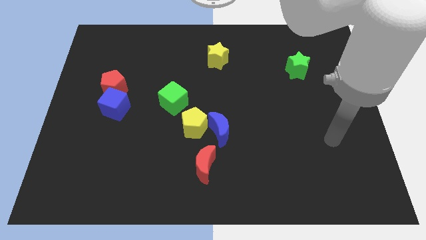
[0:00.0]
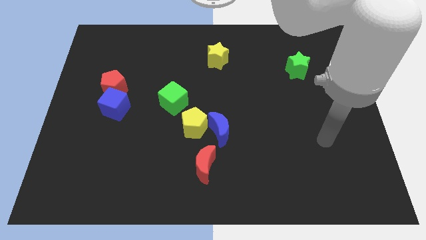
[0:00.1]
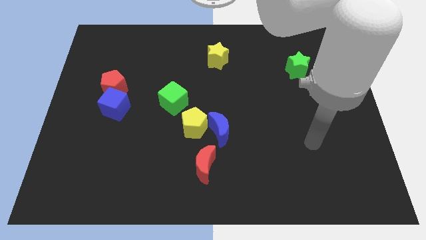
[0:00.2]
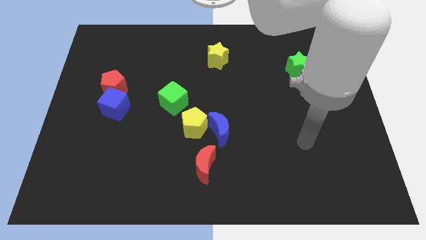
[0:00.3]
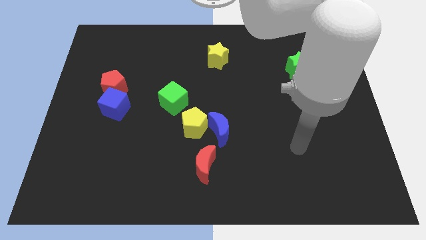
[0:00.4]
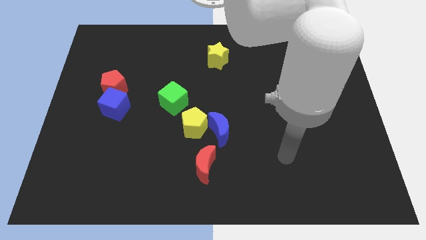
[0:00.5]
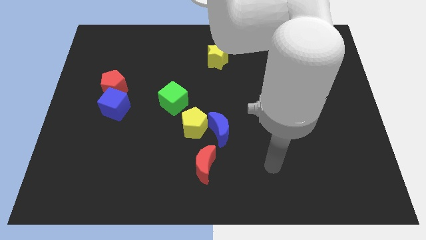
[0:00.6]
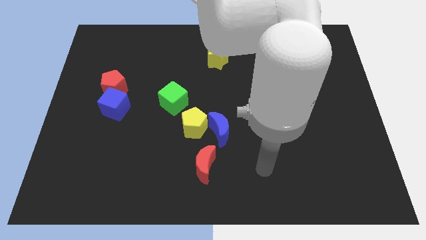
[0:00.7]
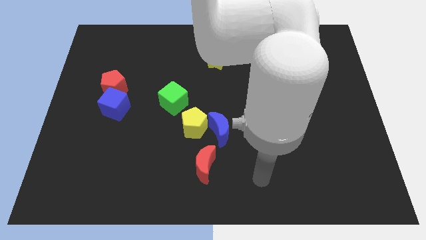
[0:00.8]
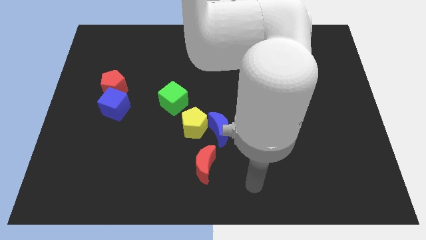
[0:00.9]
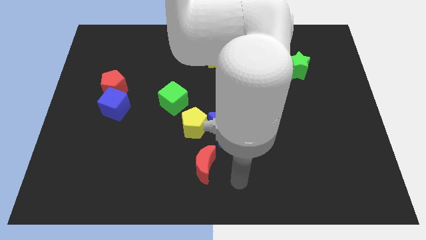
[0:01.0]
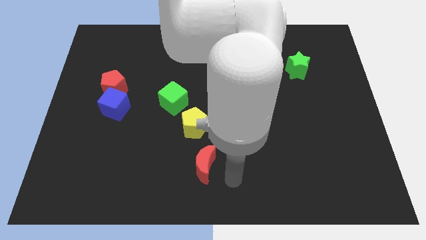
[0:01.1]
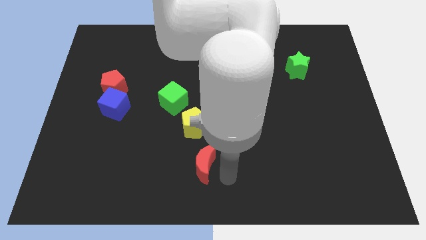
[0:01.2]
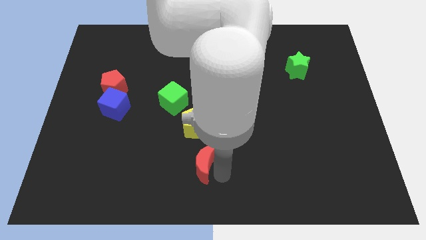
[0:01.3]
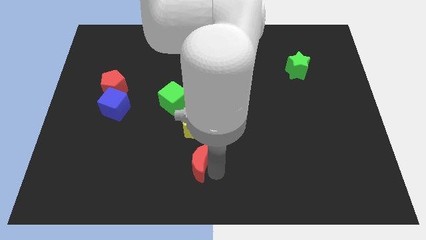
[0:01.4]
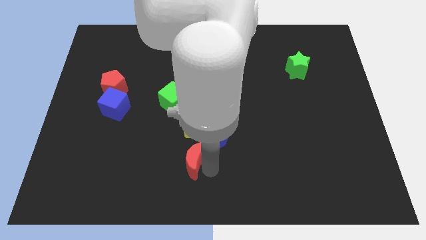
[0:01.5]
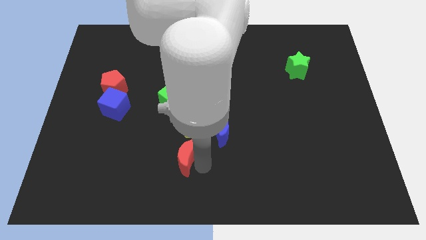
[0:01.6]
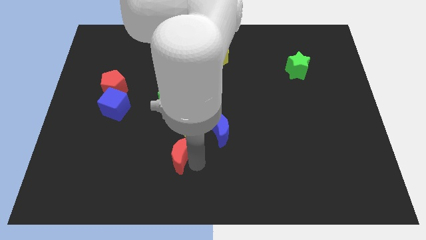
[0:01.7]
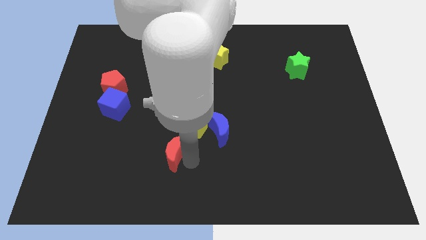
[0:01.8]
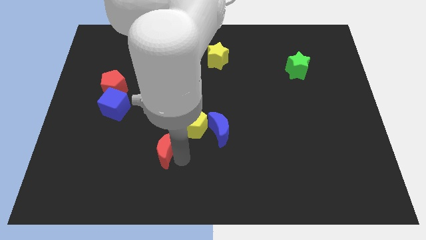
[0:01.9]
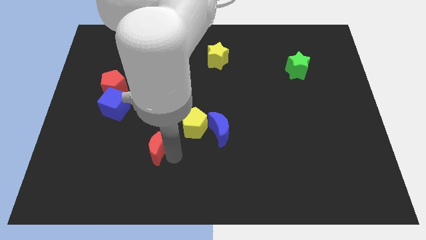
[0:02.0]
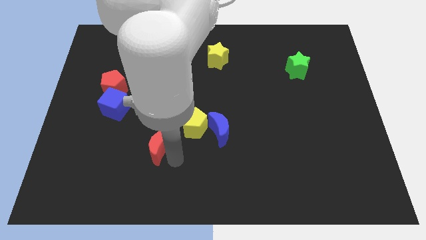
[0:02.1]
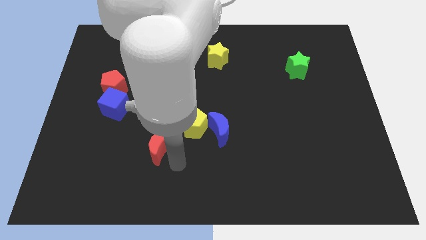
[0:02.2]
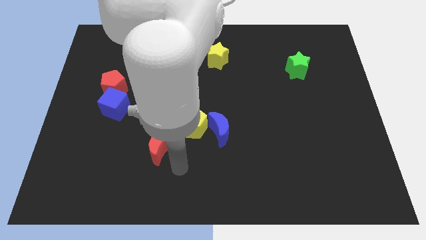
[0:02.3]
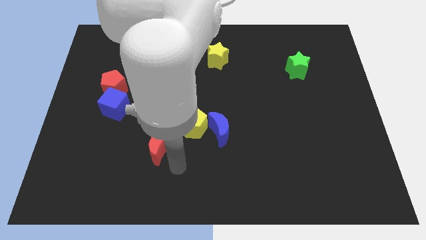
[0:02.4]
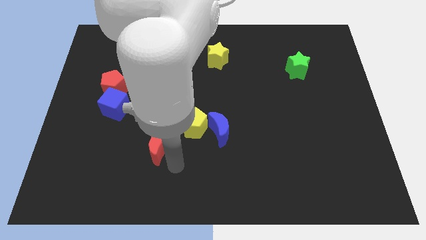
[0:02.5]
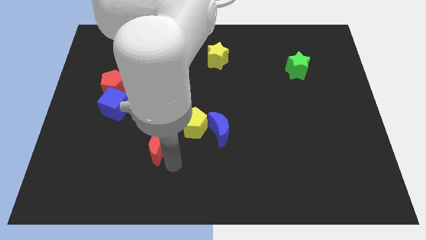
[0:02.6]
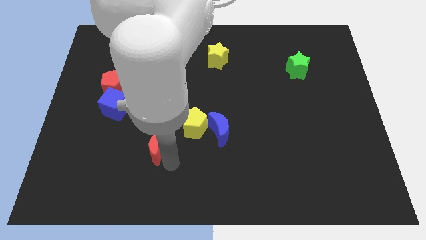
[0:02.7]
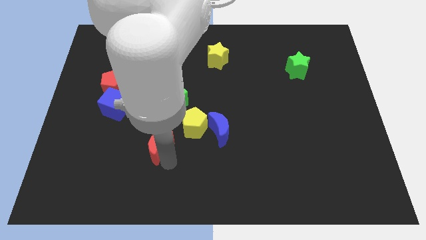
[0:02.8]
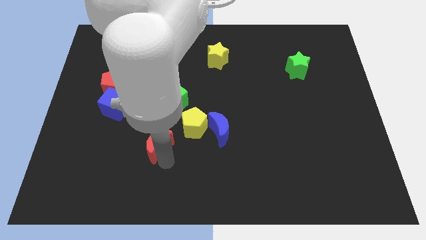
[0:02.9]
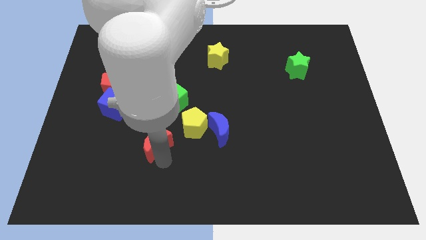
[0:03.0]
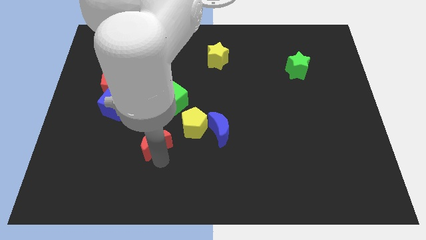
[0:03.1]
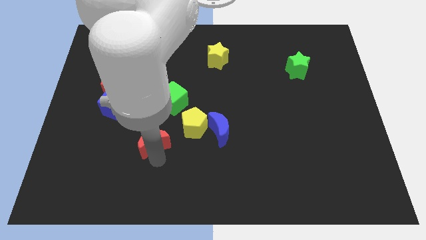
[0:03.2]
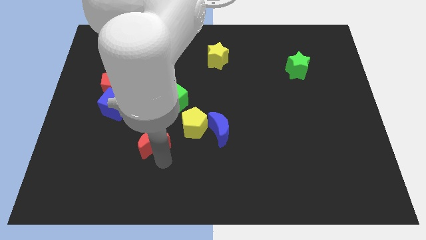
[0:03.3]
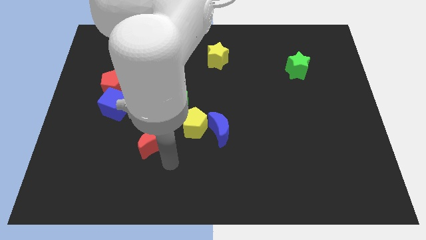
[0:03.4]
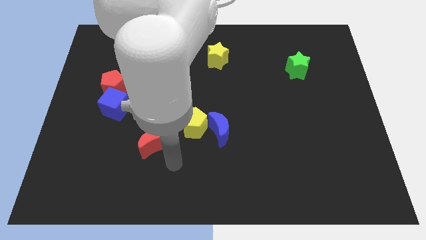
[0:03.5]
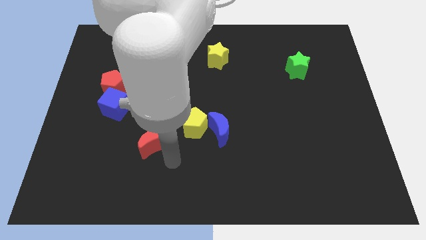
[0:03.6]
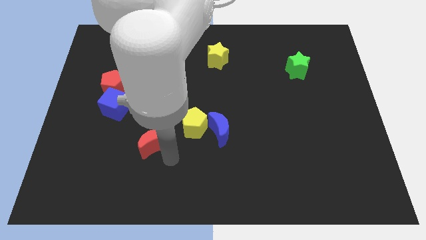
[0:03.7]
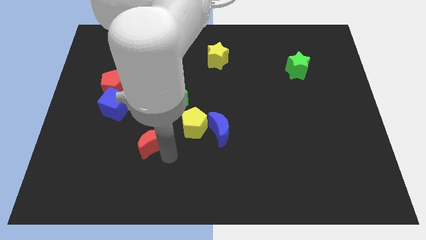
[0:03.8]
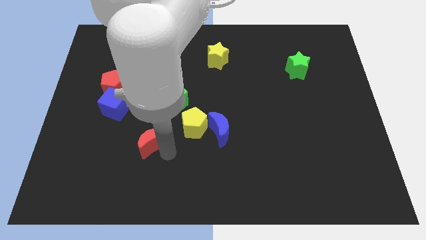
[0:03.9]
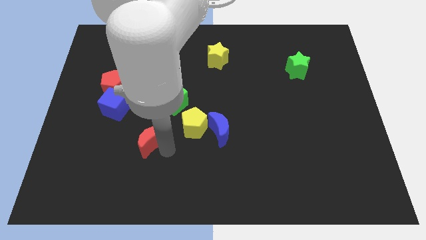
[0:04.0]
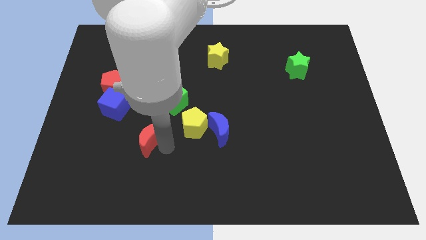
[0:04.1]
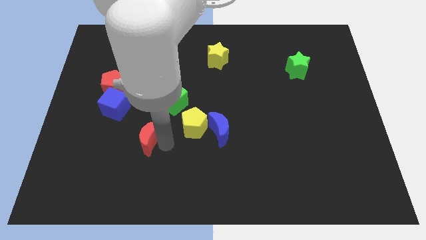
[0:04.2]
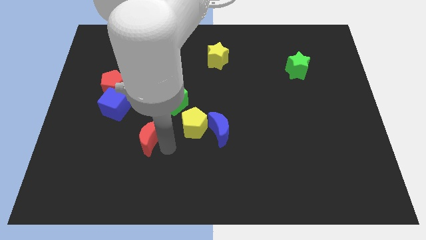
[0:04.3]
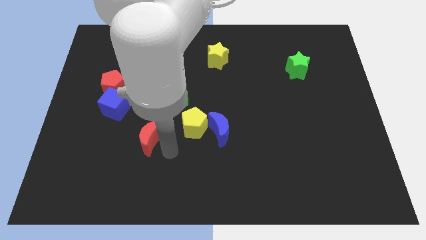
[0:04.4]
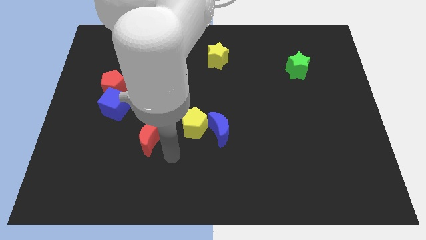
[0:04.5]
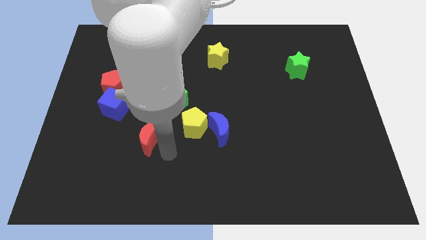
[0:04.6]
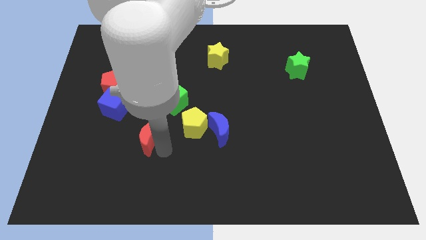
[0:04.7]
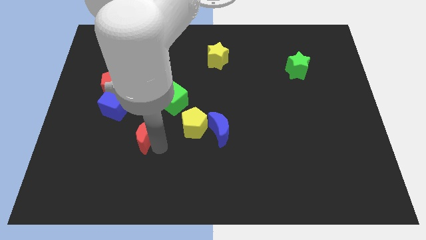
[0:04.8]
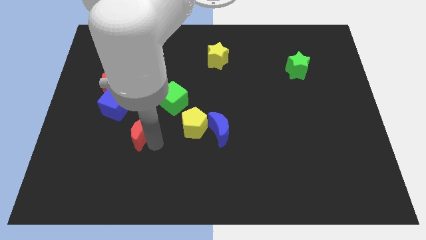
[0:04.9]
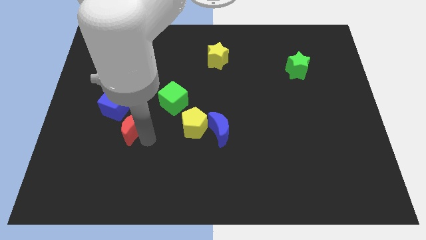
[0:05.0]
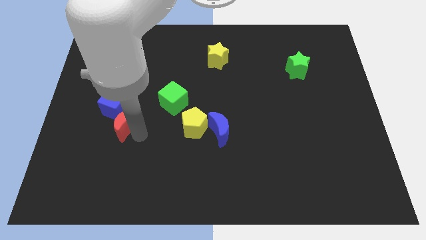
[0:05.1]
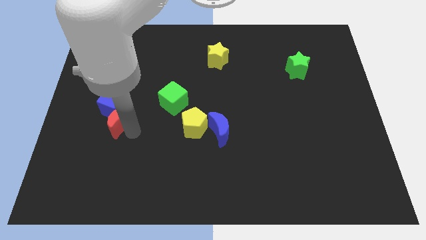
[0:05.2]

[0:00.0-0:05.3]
slide the red moon towards the blue cube

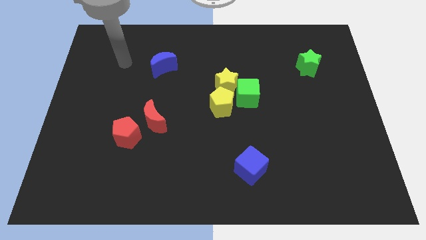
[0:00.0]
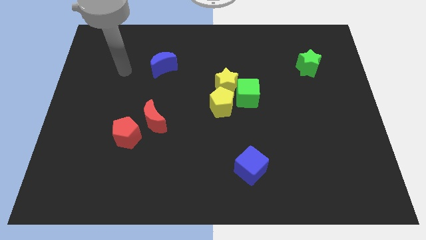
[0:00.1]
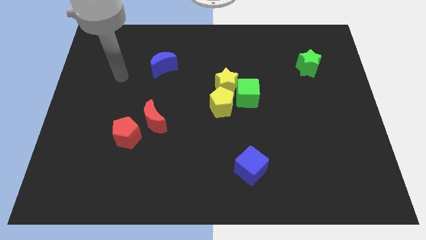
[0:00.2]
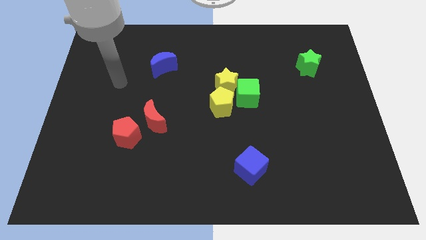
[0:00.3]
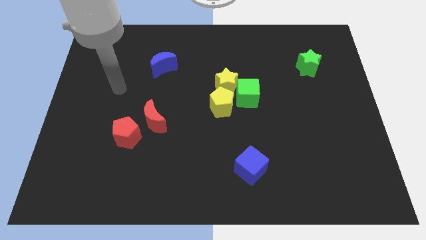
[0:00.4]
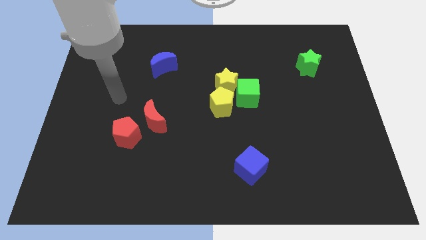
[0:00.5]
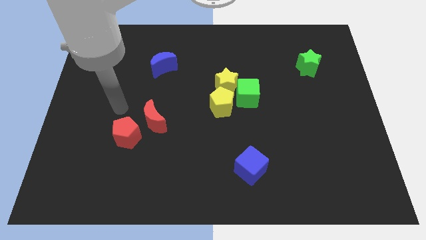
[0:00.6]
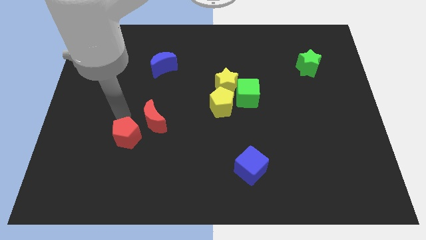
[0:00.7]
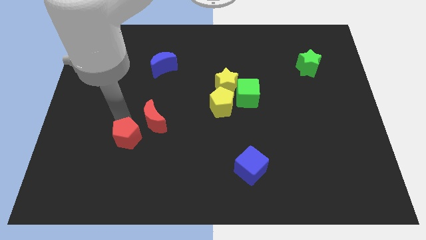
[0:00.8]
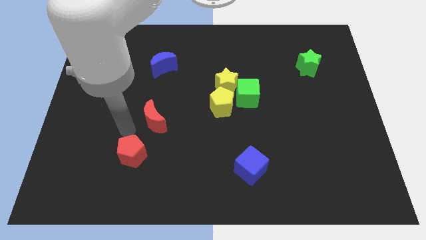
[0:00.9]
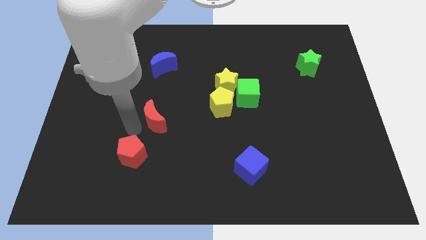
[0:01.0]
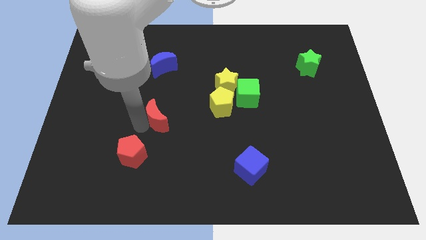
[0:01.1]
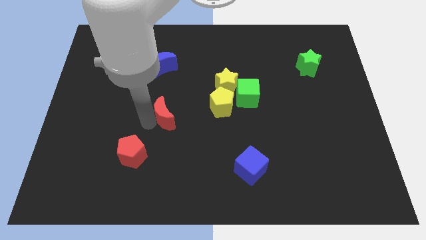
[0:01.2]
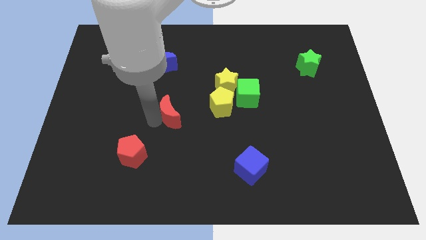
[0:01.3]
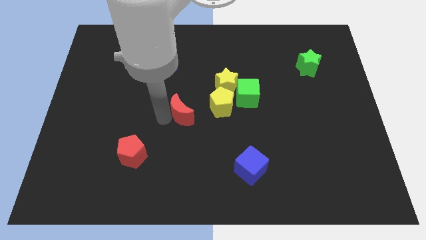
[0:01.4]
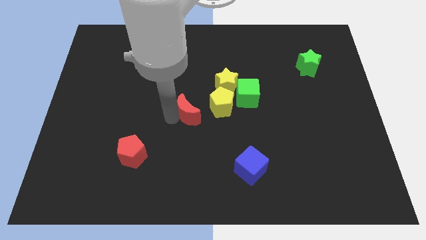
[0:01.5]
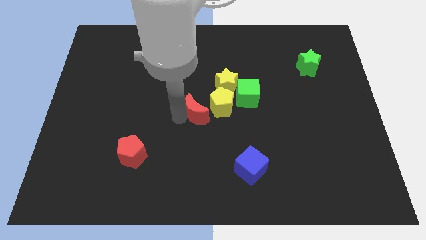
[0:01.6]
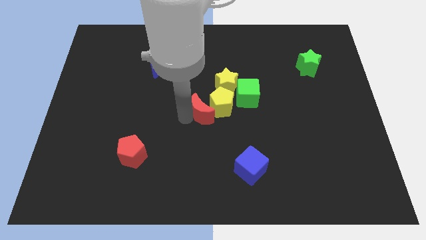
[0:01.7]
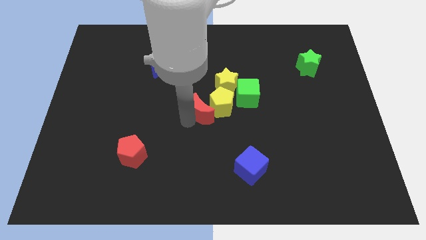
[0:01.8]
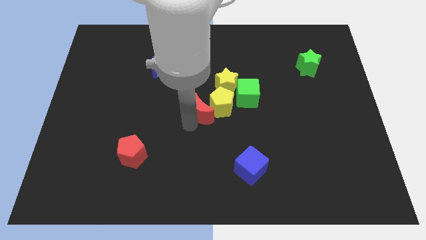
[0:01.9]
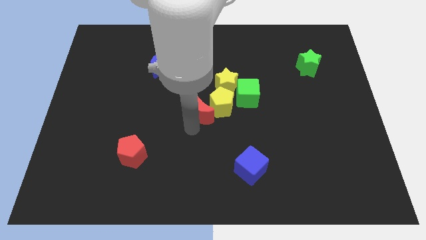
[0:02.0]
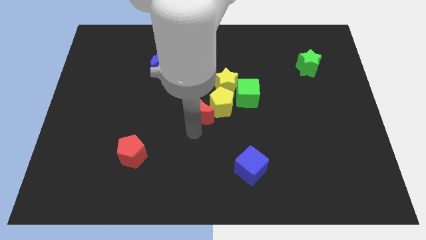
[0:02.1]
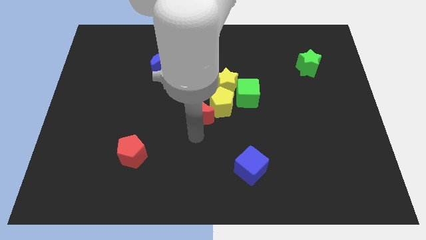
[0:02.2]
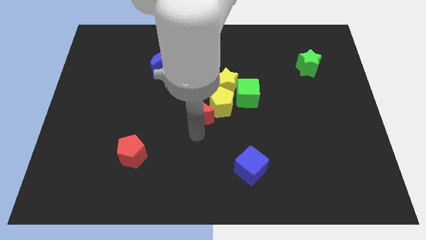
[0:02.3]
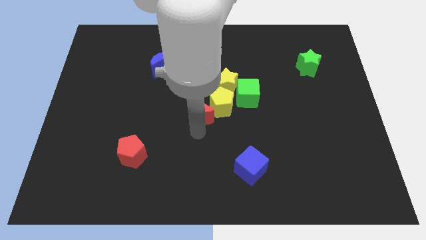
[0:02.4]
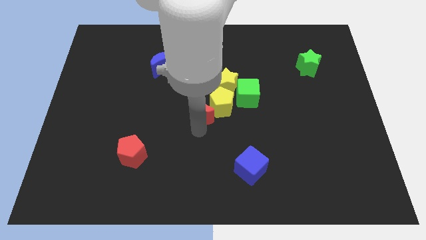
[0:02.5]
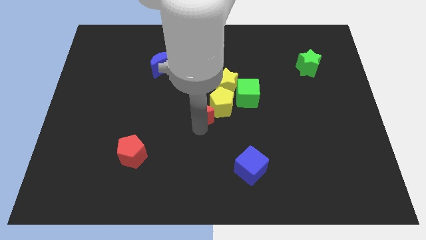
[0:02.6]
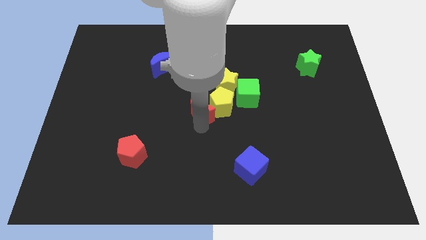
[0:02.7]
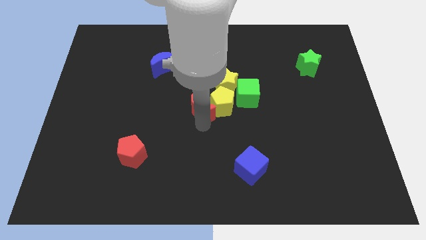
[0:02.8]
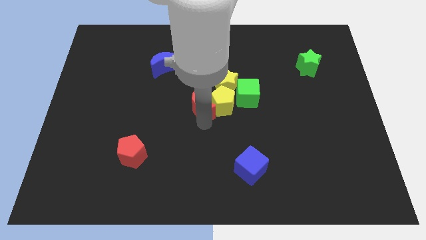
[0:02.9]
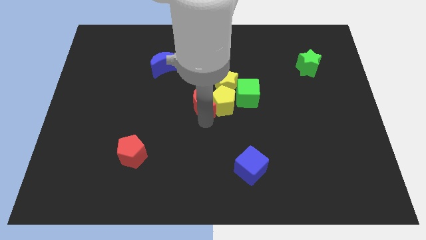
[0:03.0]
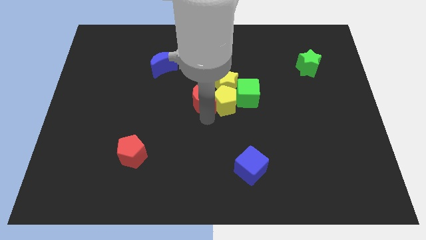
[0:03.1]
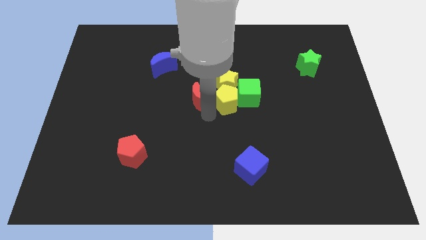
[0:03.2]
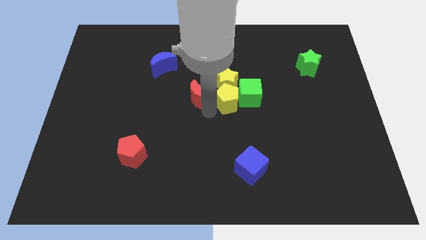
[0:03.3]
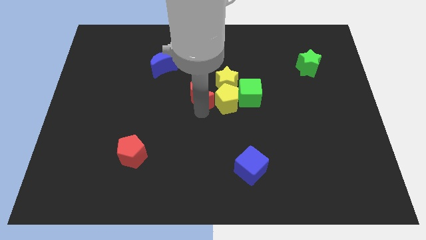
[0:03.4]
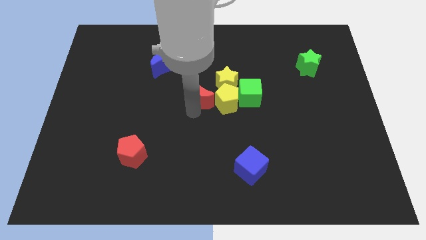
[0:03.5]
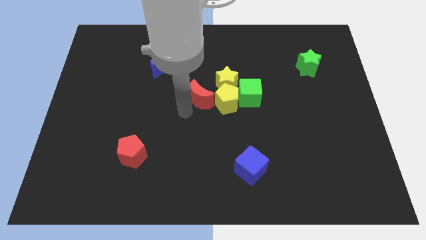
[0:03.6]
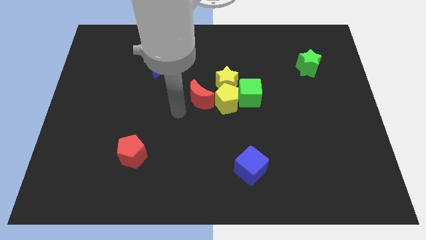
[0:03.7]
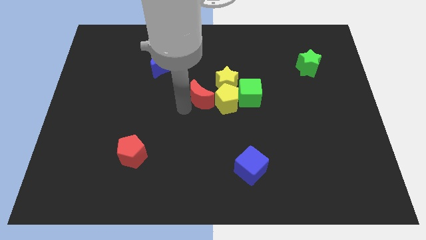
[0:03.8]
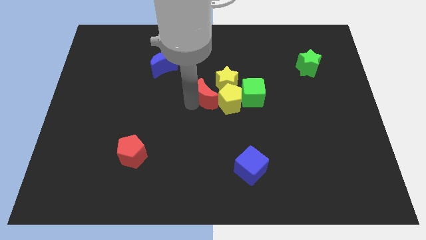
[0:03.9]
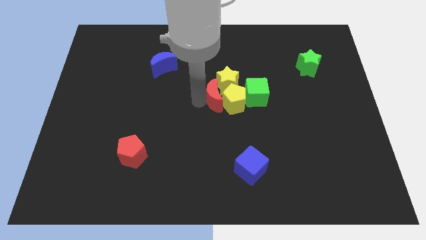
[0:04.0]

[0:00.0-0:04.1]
push the red moon close to the yellow star
